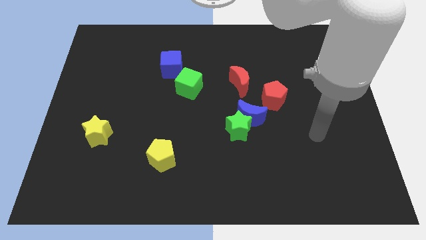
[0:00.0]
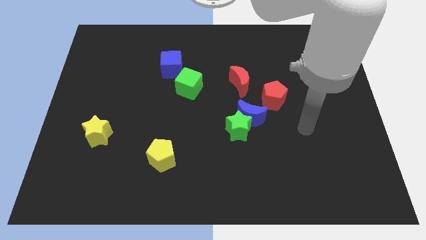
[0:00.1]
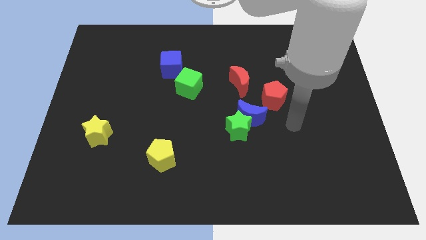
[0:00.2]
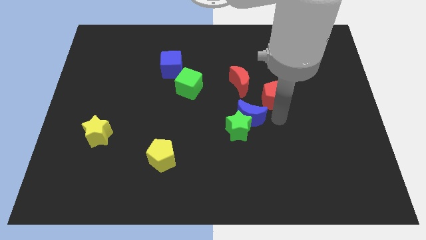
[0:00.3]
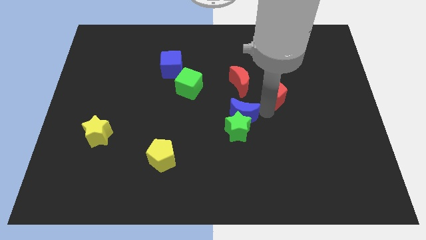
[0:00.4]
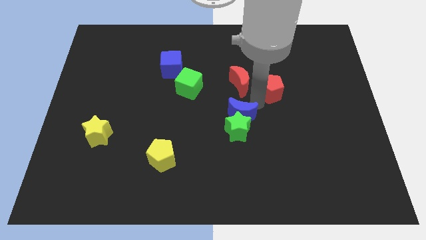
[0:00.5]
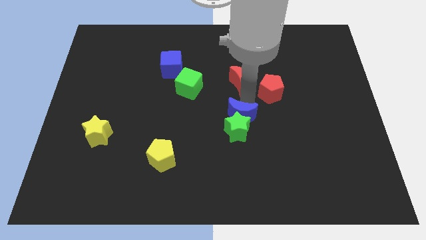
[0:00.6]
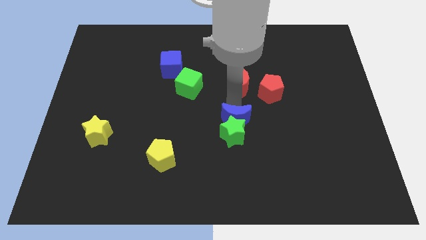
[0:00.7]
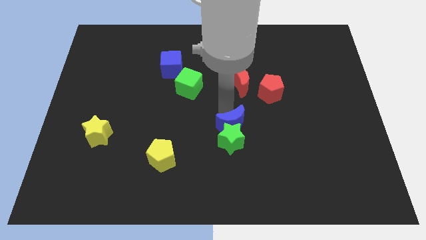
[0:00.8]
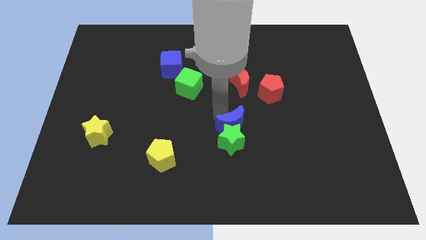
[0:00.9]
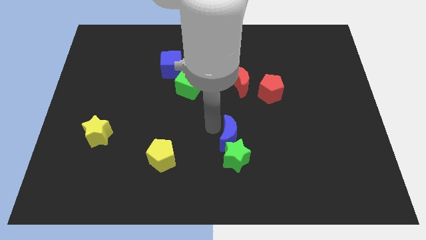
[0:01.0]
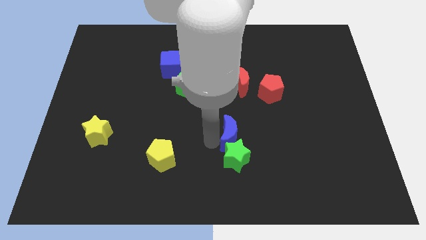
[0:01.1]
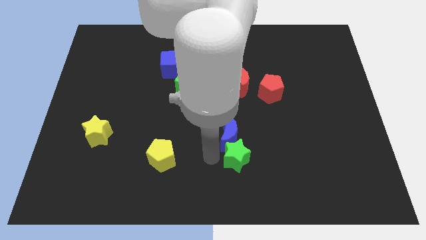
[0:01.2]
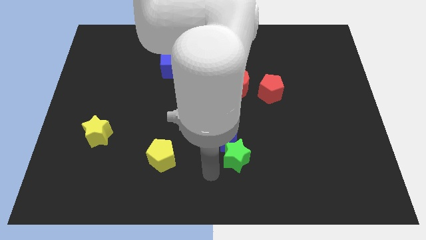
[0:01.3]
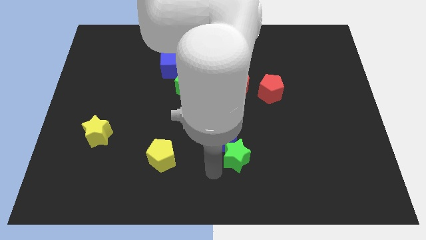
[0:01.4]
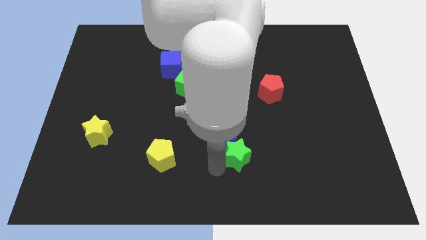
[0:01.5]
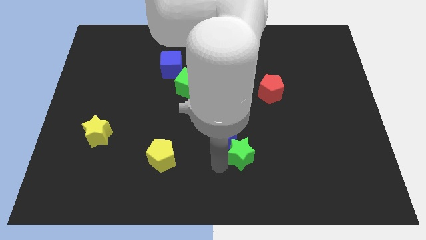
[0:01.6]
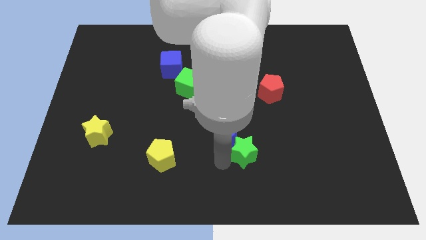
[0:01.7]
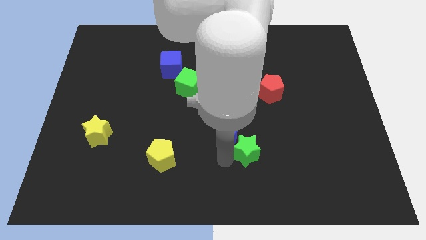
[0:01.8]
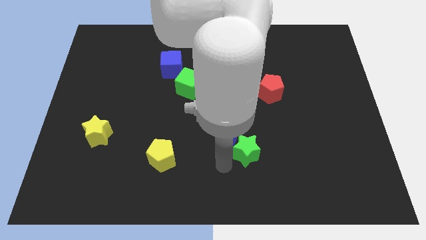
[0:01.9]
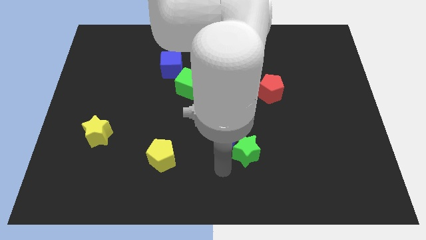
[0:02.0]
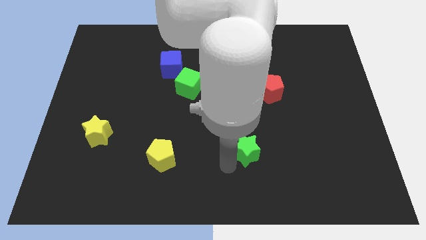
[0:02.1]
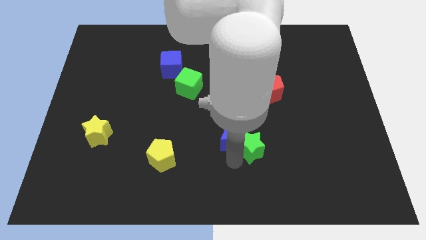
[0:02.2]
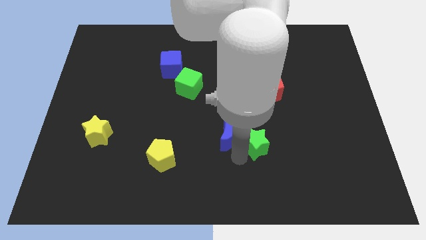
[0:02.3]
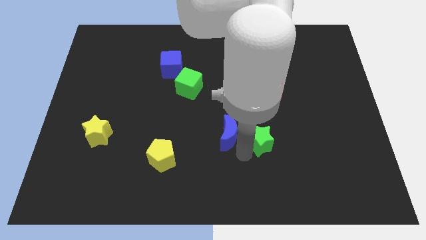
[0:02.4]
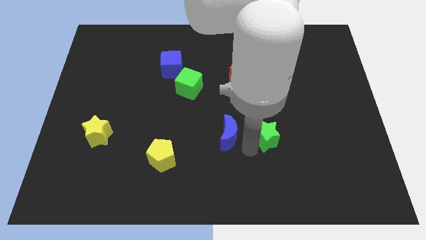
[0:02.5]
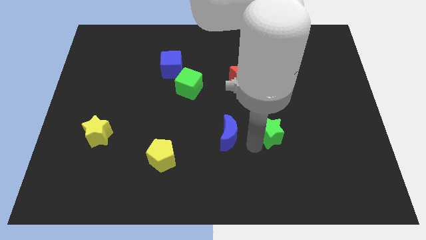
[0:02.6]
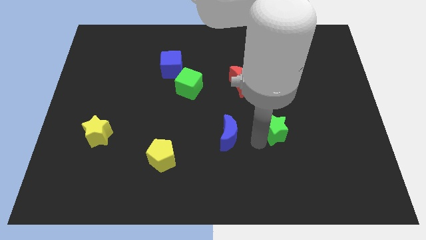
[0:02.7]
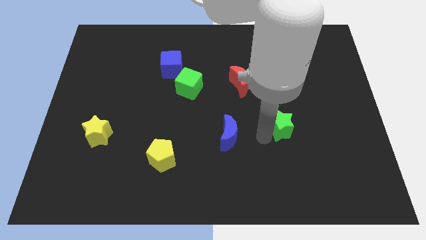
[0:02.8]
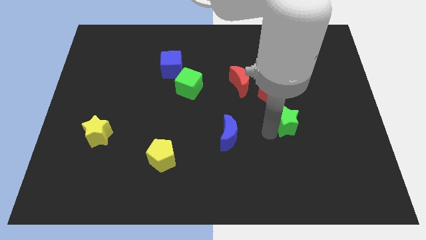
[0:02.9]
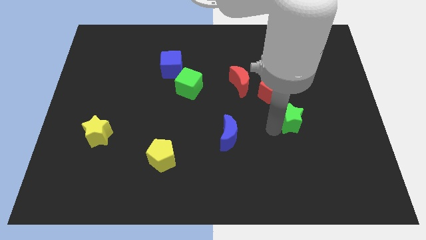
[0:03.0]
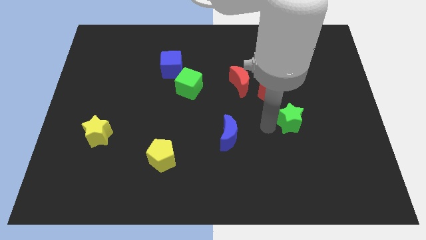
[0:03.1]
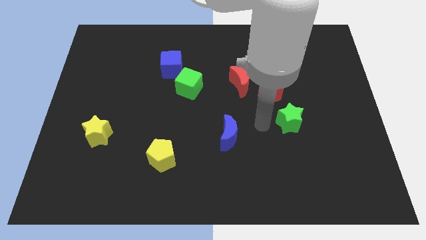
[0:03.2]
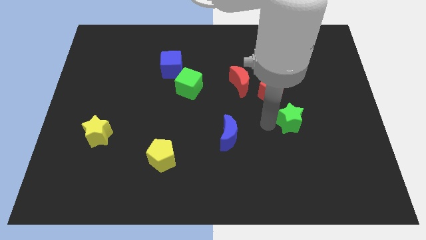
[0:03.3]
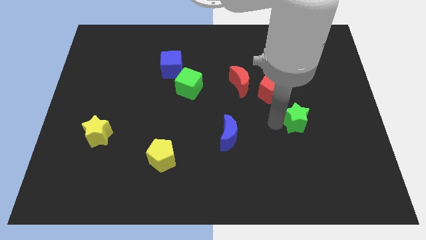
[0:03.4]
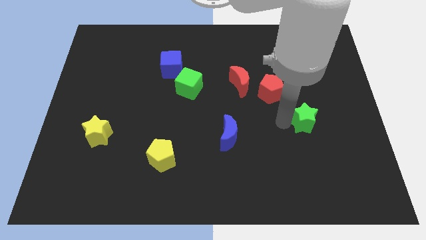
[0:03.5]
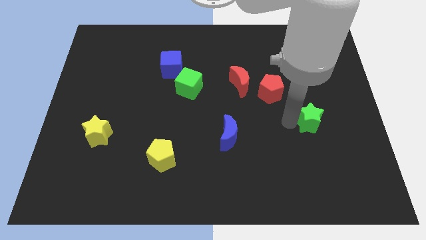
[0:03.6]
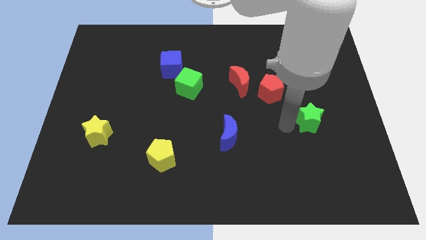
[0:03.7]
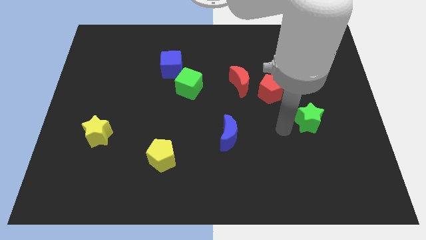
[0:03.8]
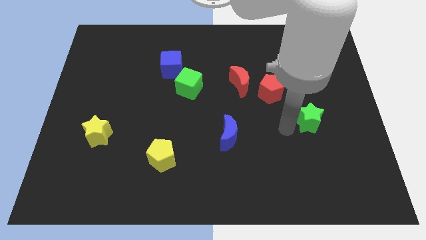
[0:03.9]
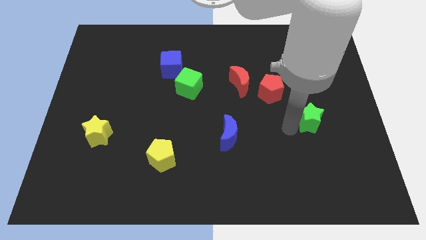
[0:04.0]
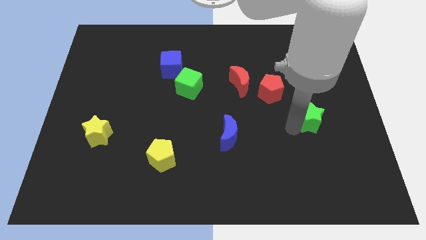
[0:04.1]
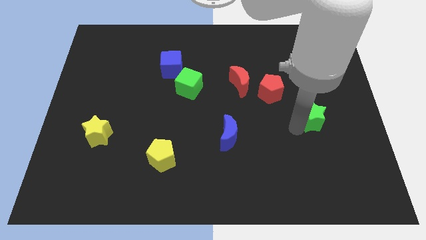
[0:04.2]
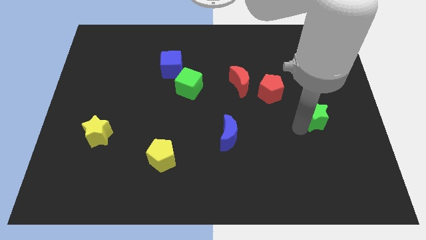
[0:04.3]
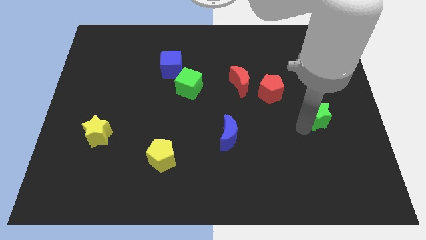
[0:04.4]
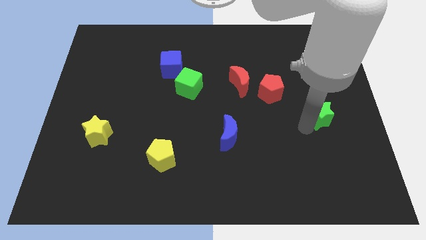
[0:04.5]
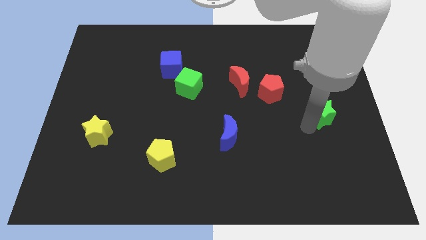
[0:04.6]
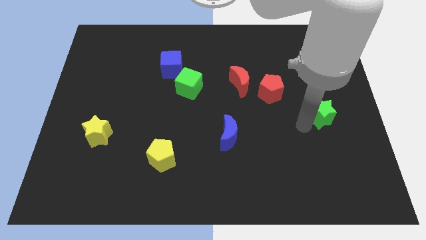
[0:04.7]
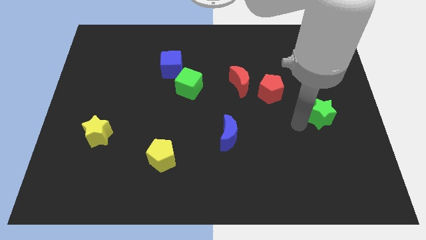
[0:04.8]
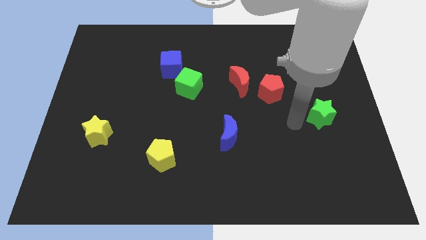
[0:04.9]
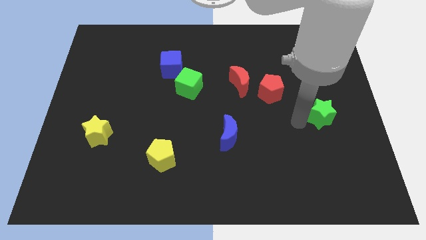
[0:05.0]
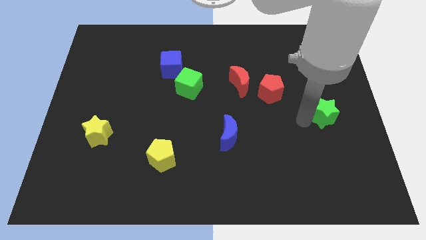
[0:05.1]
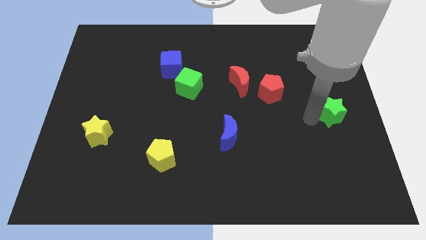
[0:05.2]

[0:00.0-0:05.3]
put the green star to the right side of the board

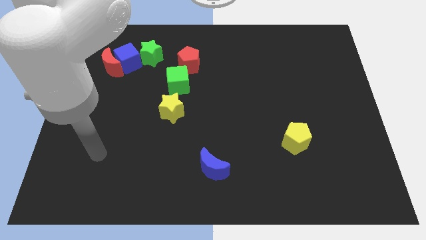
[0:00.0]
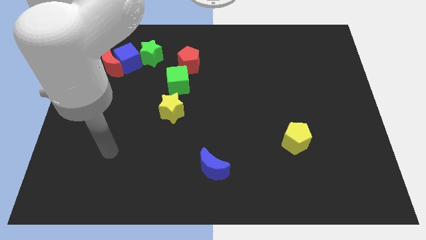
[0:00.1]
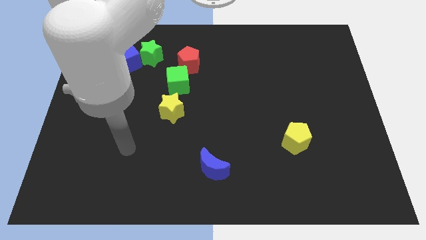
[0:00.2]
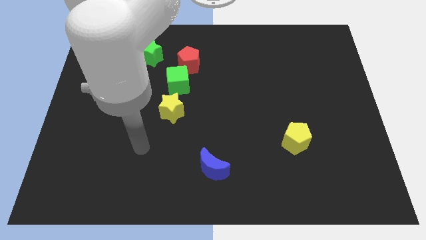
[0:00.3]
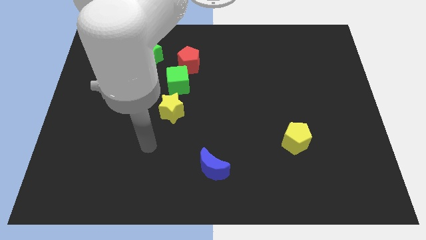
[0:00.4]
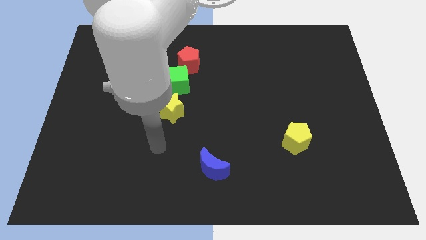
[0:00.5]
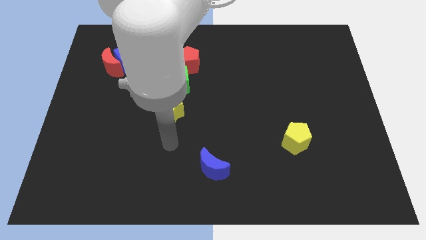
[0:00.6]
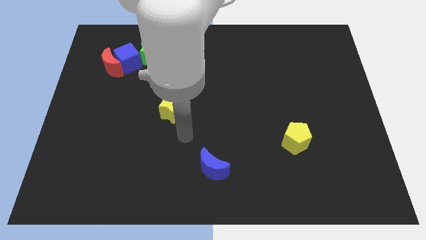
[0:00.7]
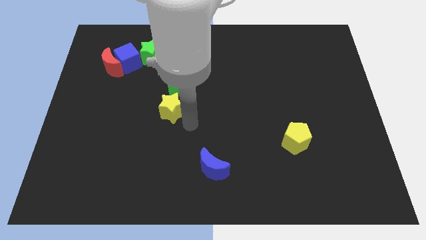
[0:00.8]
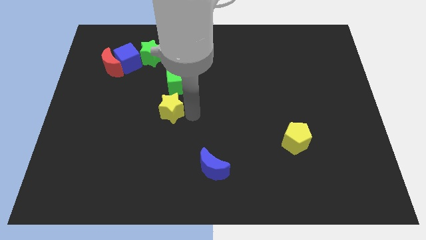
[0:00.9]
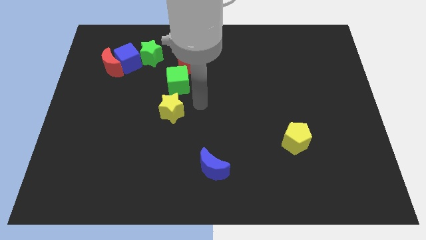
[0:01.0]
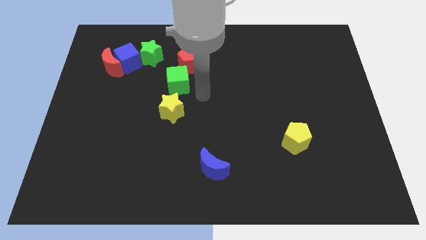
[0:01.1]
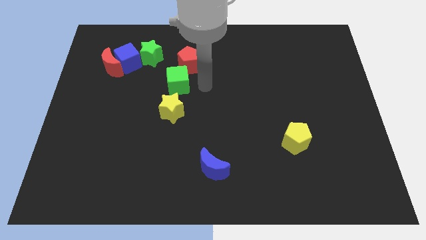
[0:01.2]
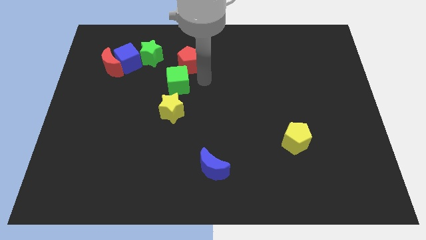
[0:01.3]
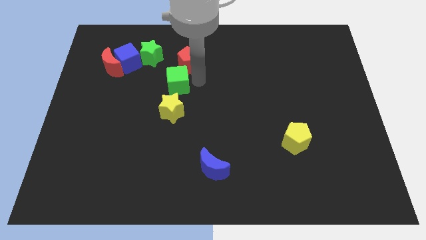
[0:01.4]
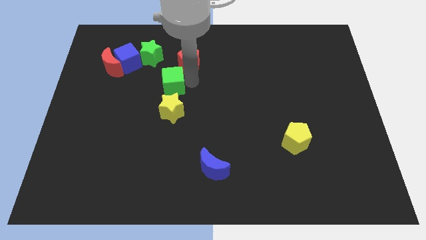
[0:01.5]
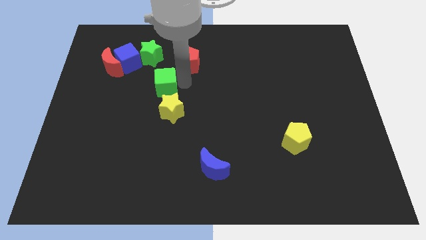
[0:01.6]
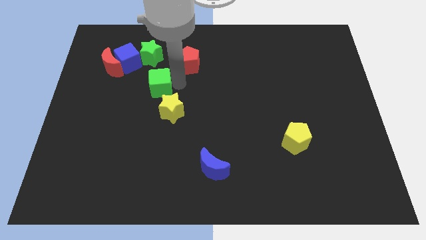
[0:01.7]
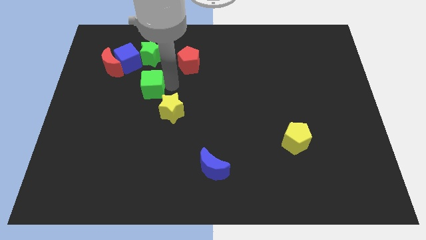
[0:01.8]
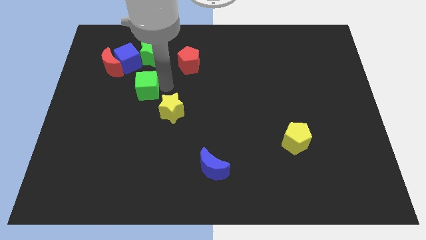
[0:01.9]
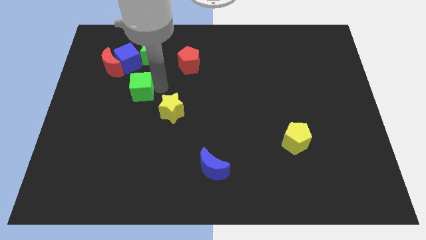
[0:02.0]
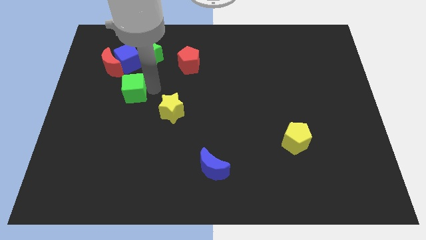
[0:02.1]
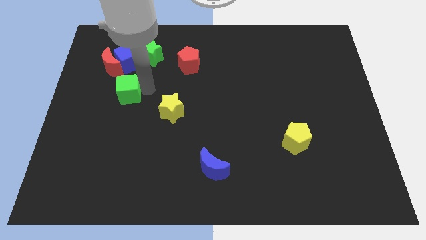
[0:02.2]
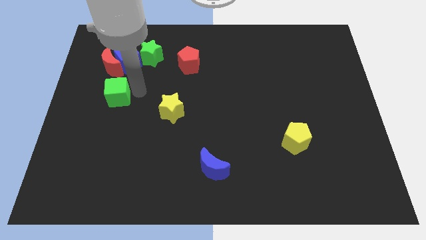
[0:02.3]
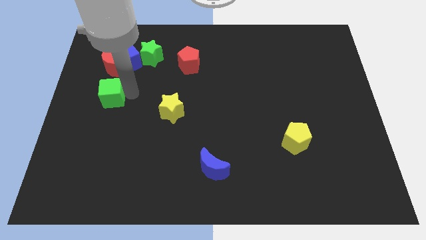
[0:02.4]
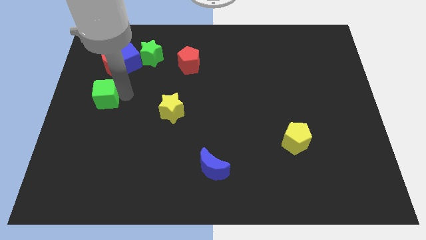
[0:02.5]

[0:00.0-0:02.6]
slide the green cube to the left side of the board

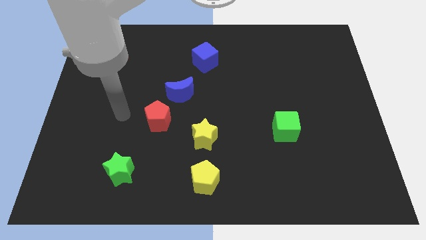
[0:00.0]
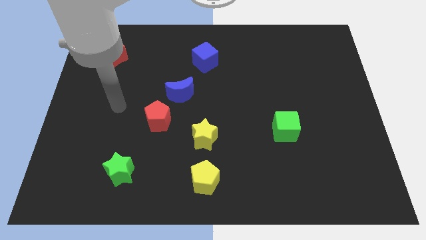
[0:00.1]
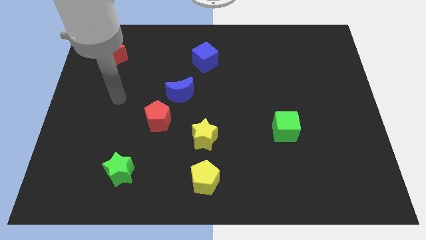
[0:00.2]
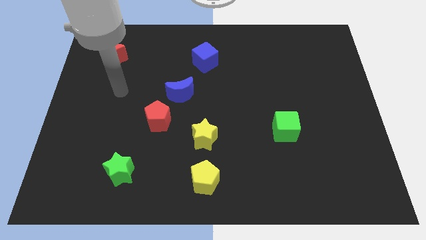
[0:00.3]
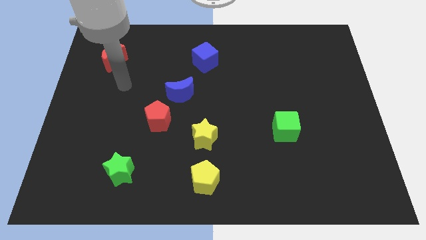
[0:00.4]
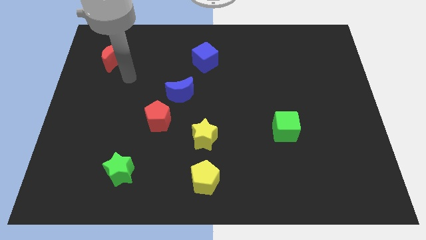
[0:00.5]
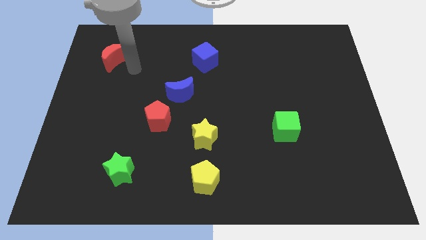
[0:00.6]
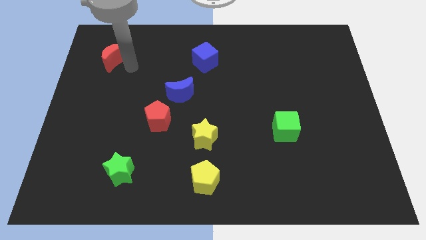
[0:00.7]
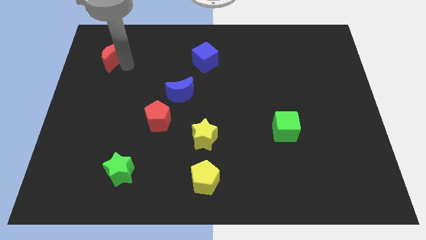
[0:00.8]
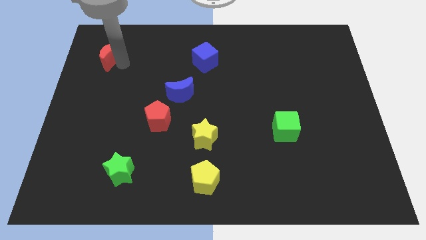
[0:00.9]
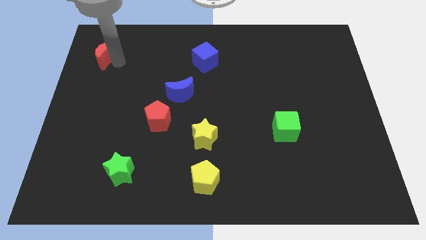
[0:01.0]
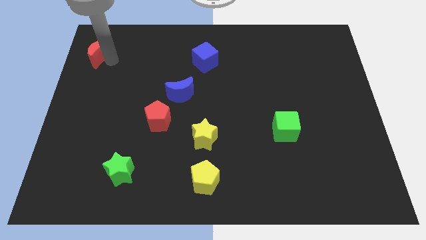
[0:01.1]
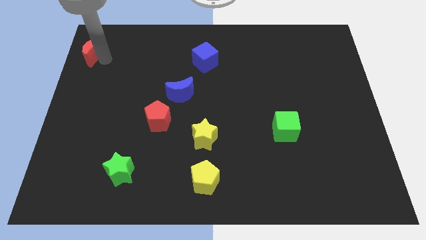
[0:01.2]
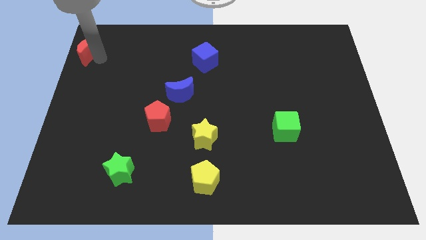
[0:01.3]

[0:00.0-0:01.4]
put the red moon to the top left
